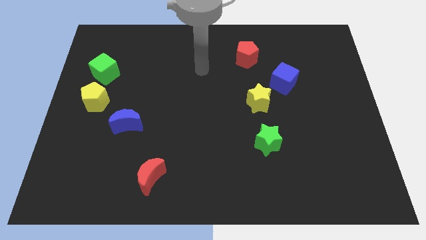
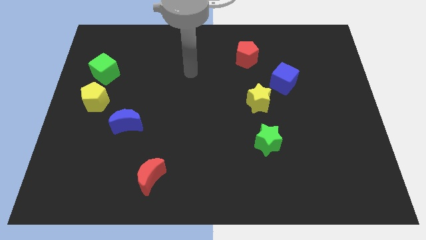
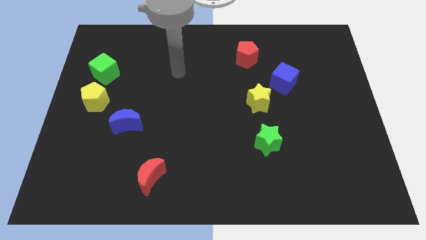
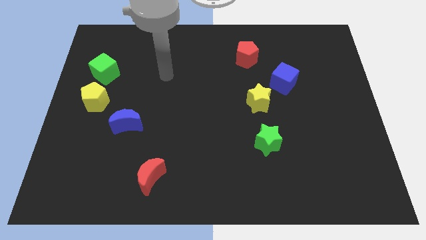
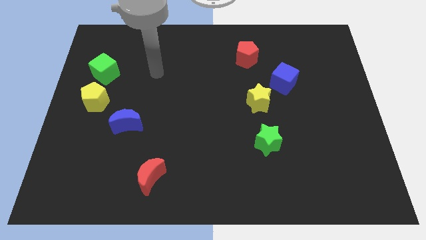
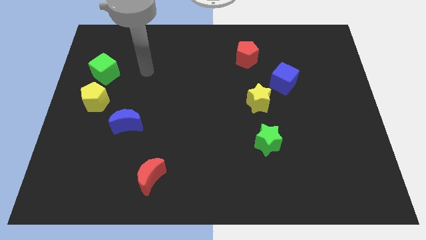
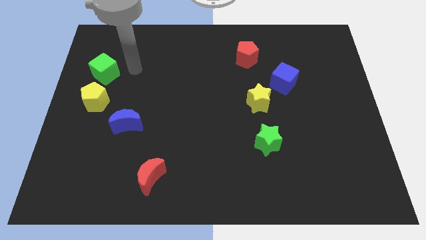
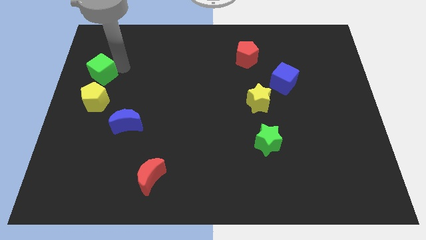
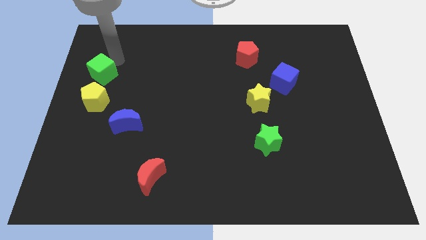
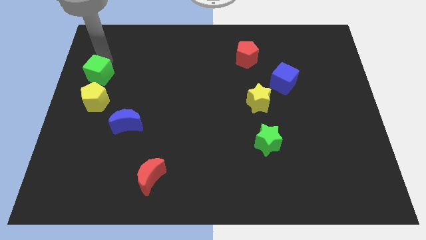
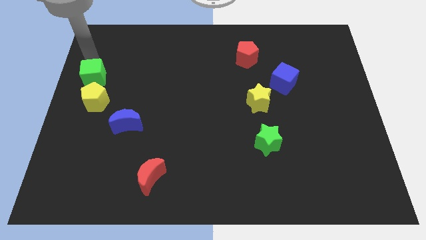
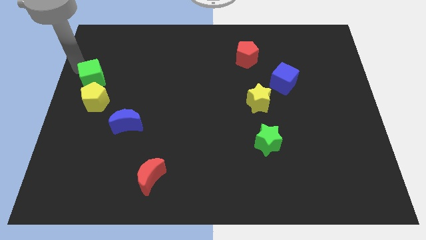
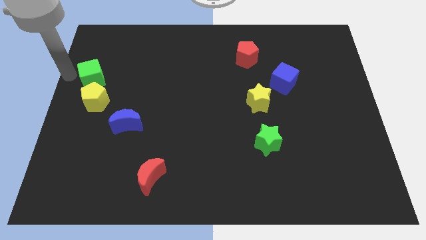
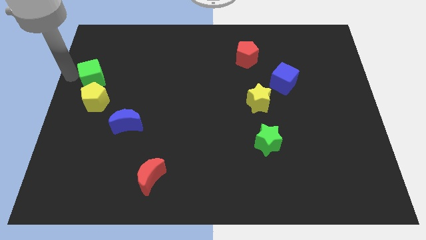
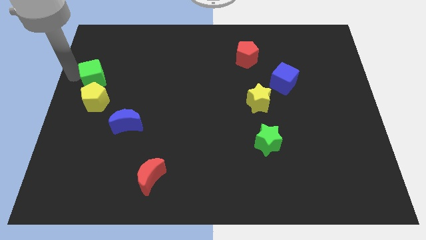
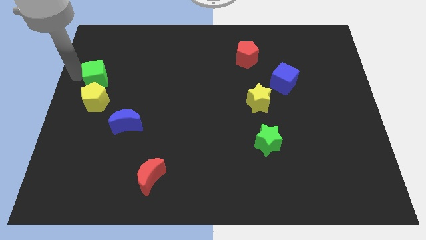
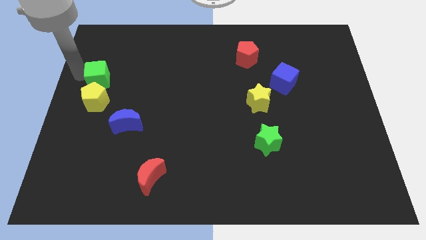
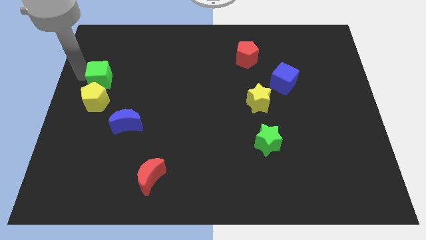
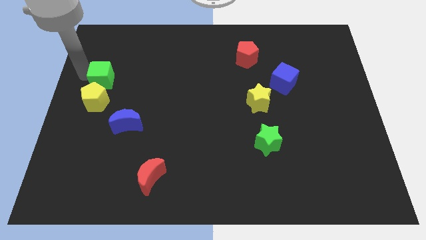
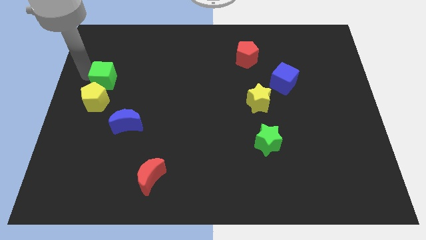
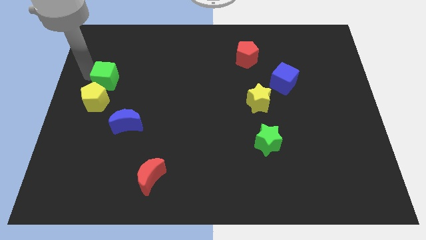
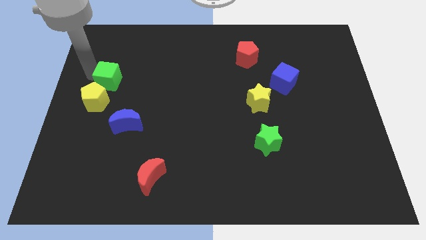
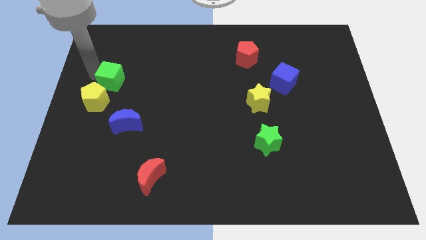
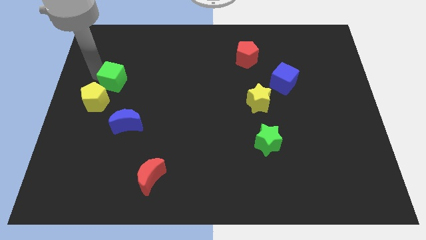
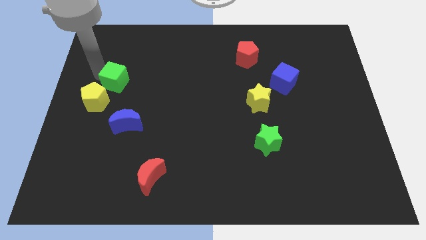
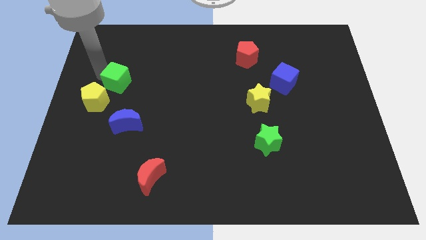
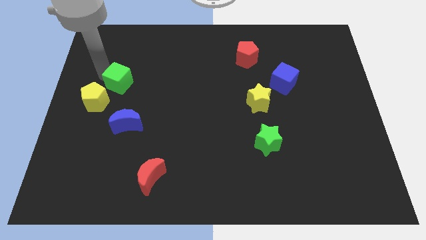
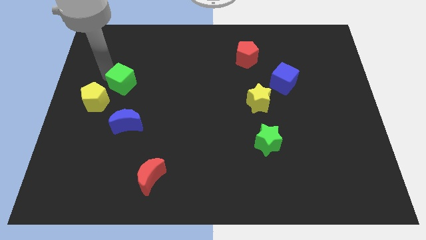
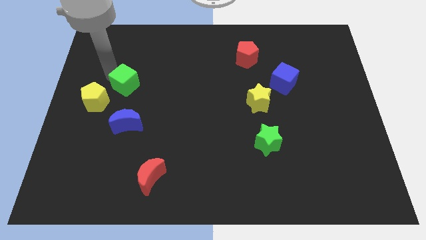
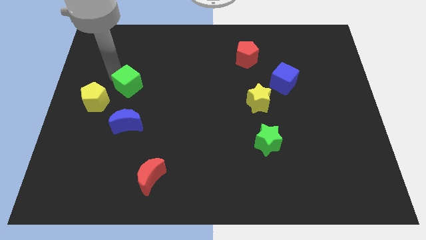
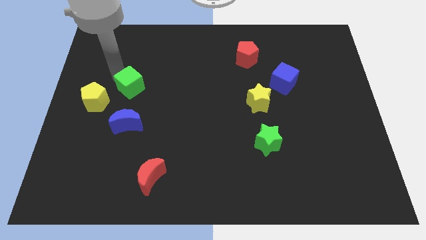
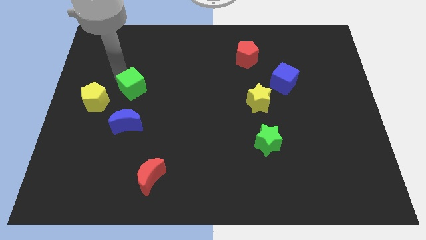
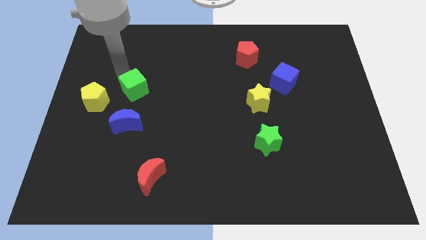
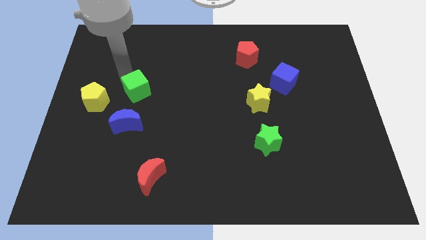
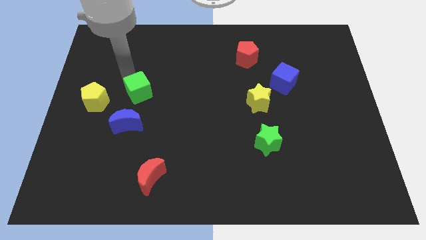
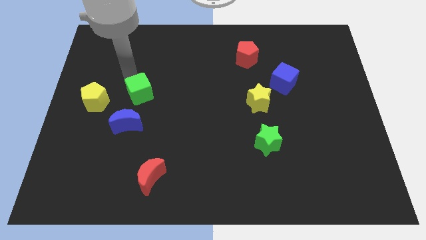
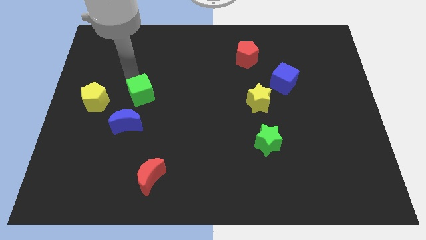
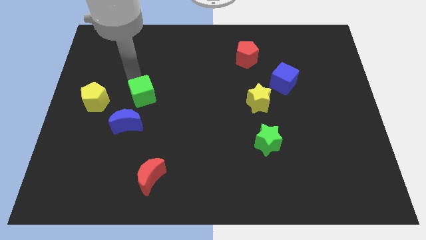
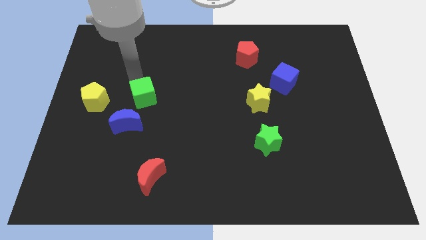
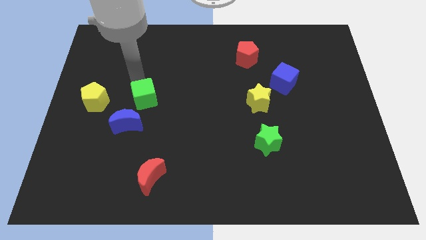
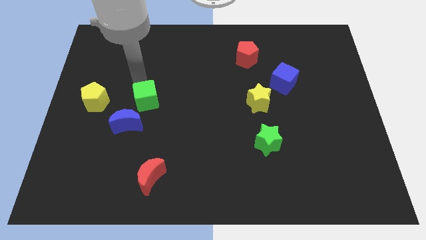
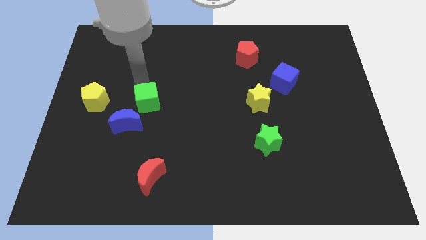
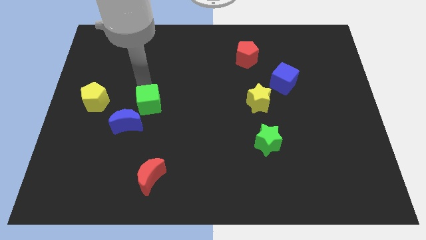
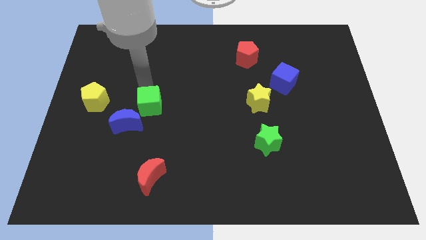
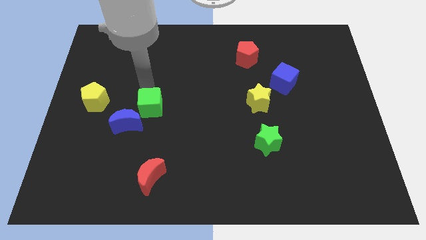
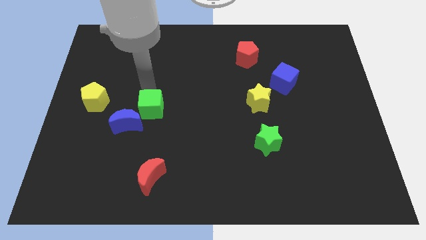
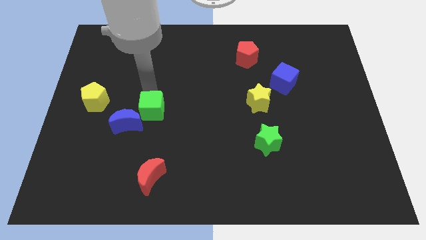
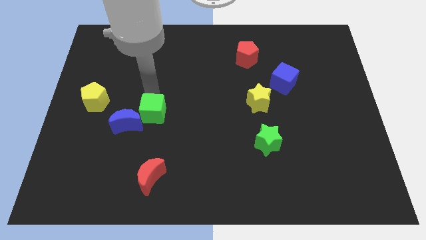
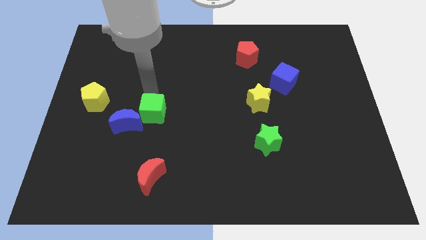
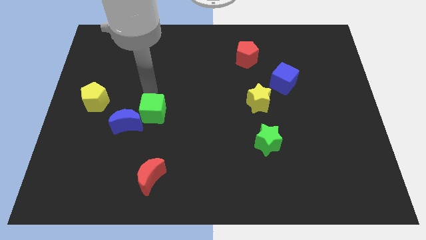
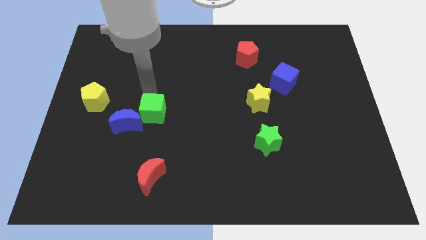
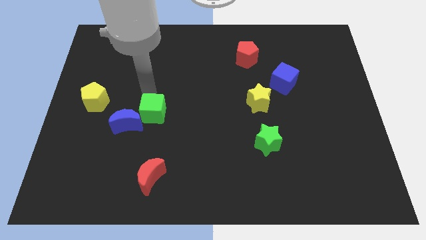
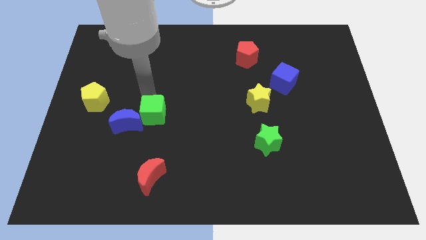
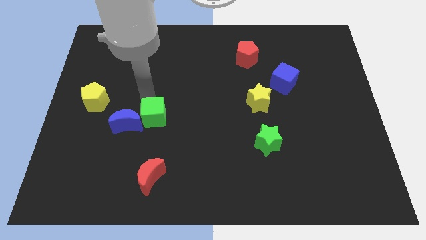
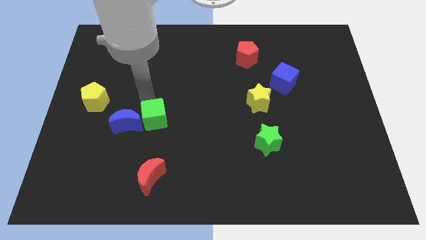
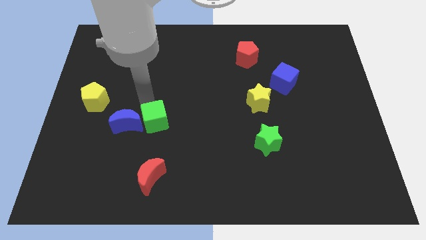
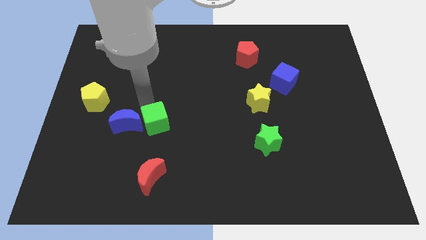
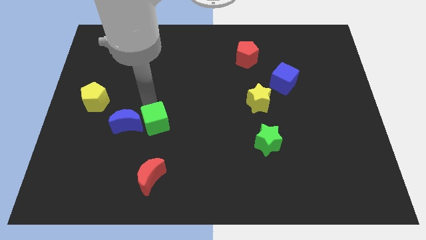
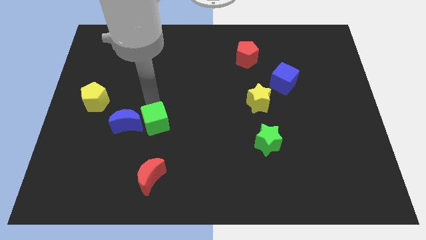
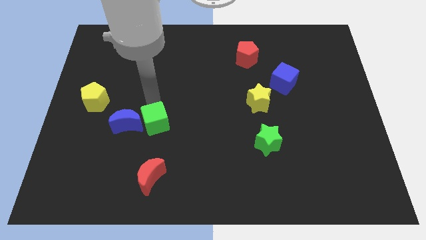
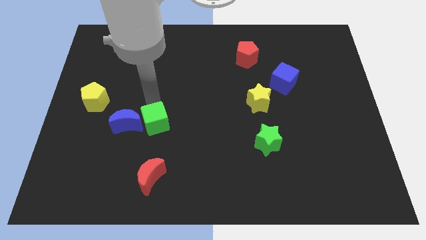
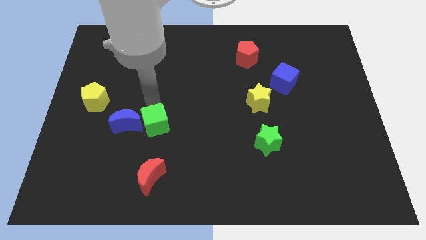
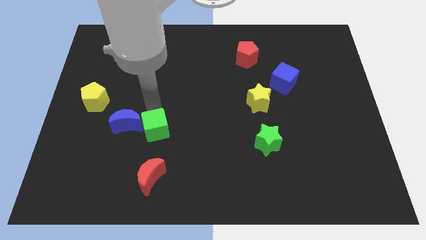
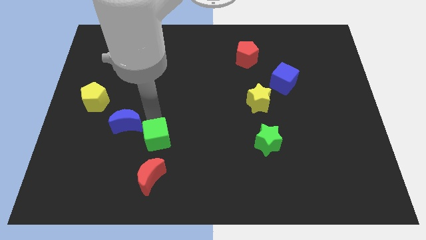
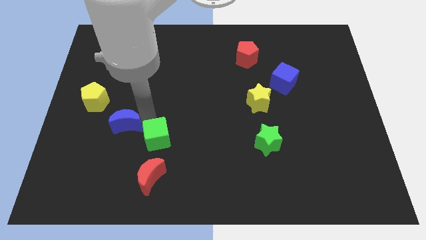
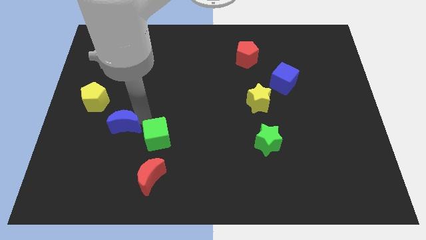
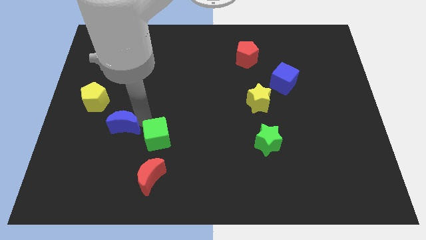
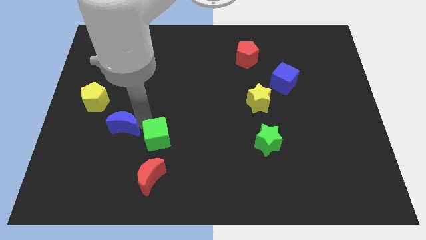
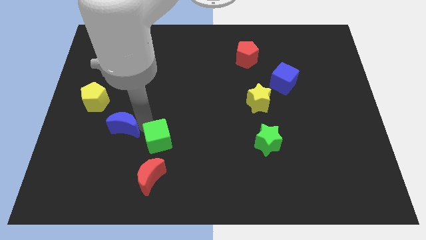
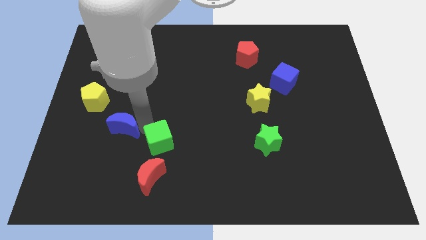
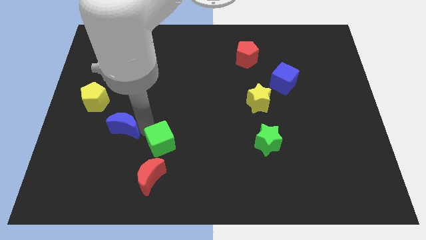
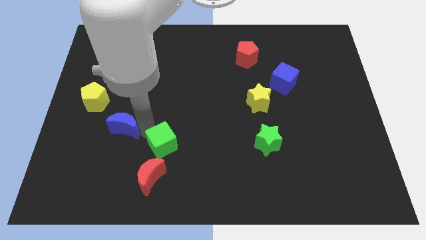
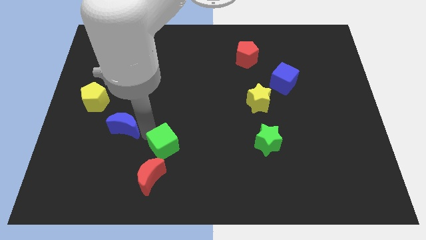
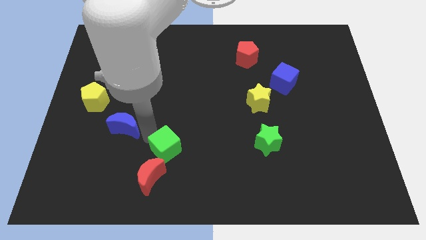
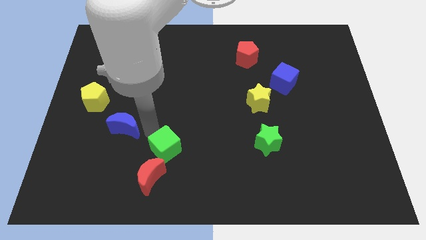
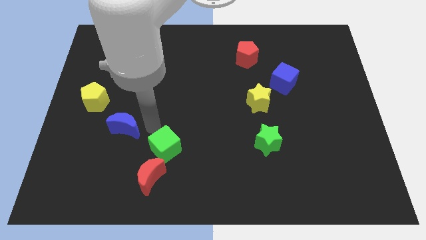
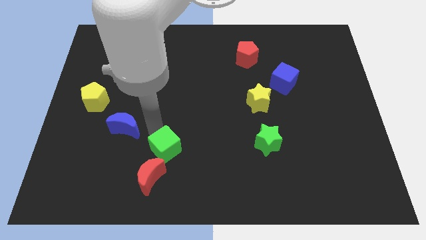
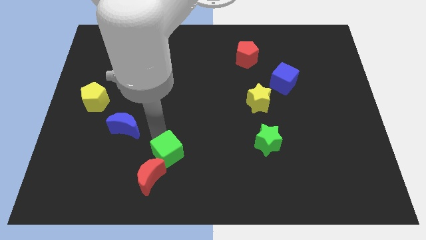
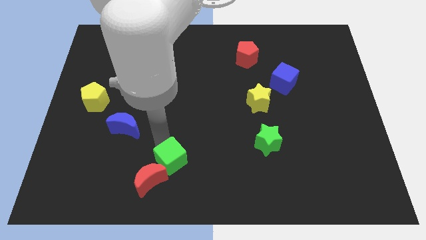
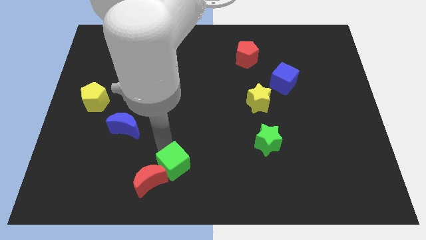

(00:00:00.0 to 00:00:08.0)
slide the green cube to the bottom
